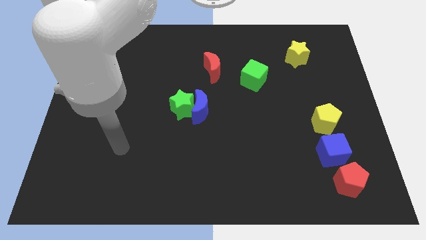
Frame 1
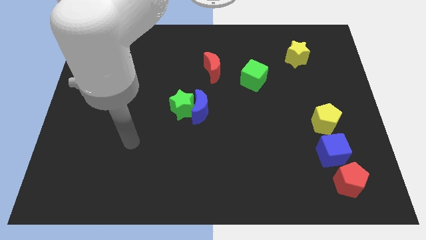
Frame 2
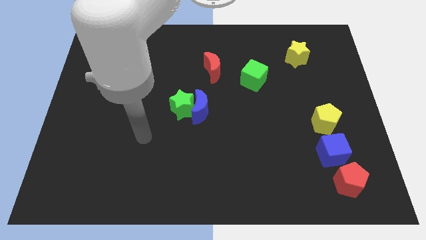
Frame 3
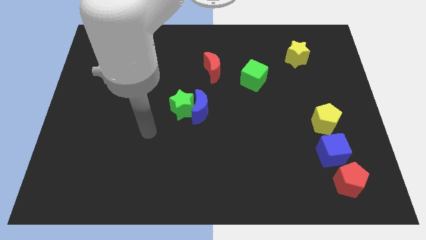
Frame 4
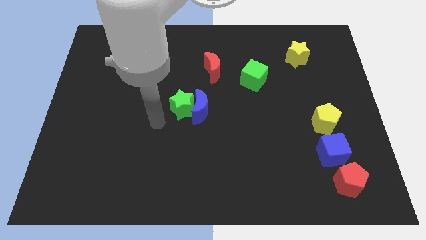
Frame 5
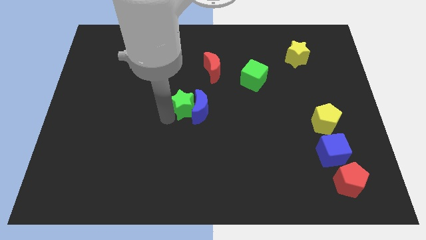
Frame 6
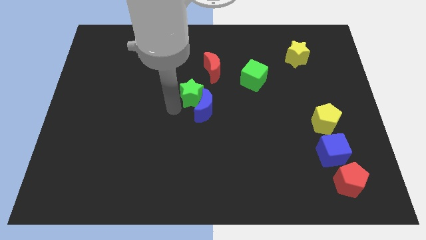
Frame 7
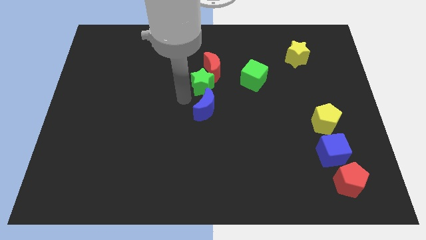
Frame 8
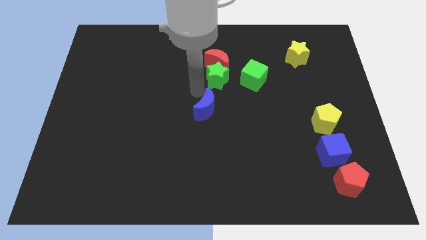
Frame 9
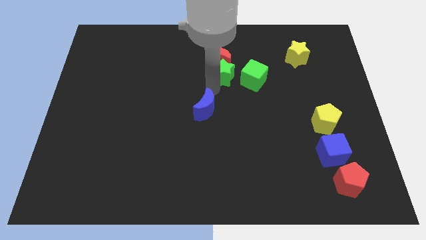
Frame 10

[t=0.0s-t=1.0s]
separate the blue moon from the green star

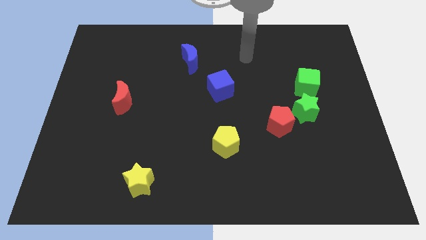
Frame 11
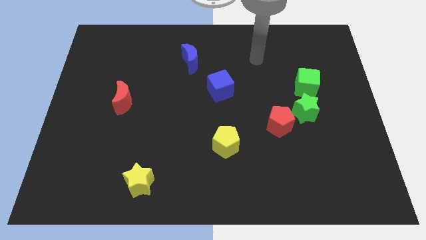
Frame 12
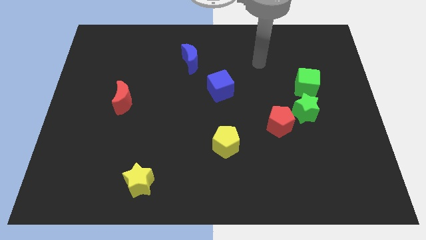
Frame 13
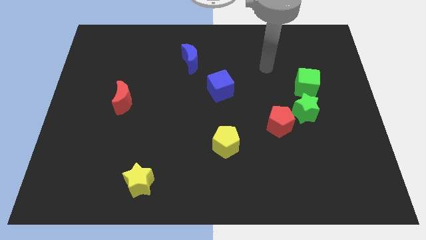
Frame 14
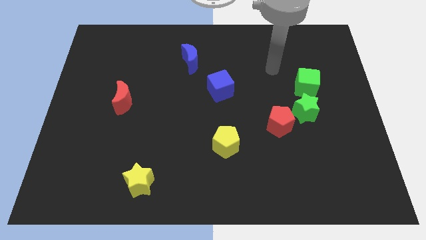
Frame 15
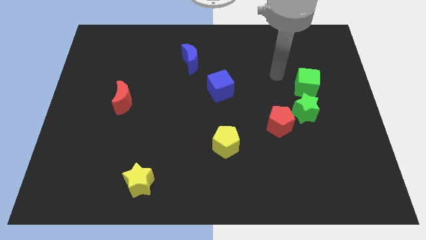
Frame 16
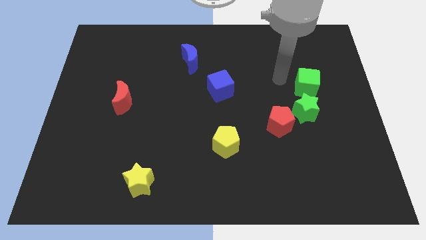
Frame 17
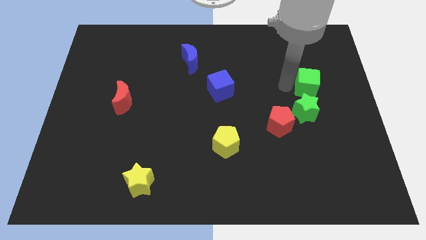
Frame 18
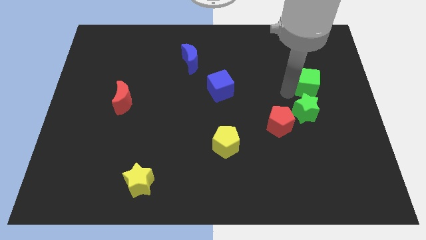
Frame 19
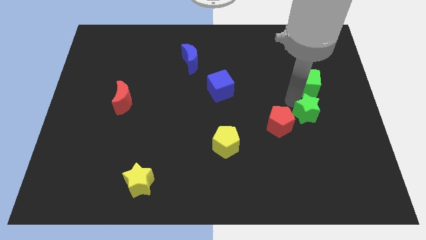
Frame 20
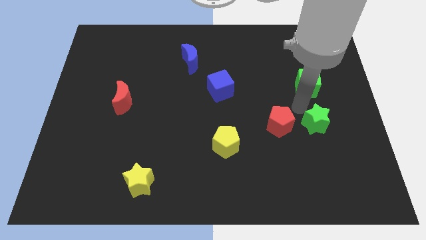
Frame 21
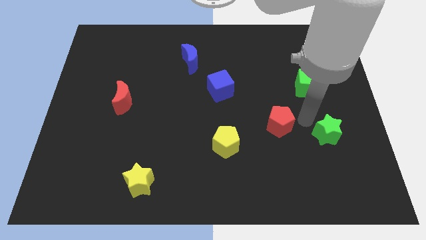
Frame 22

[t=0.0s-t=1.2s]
pull the red pentagon apart from the green star

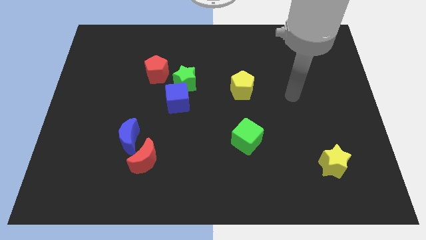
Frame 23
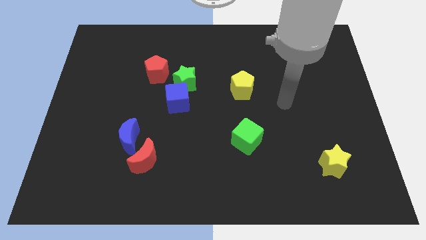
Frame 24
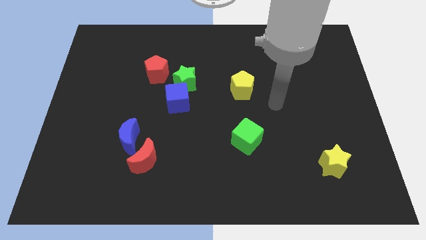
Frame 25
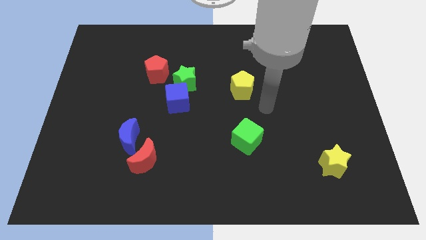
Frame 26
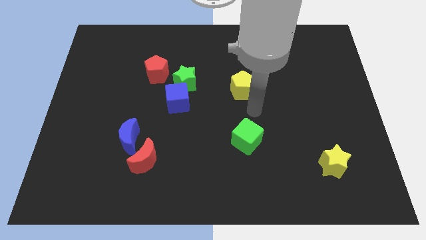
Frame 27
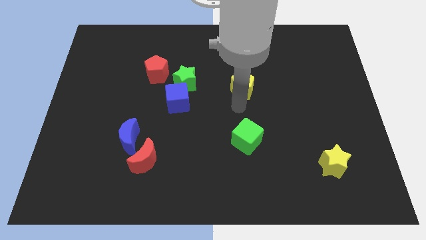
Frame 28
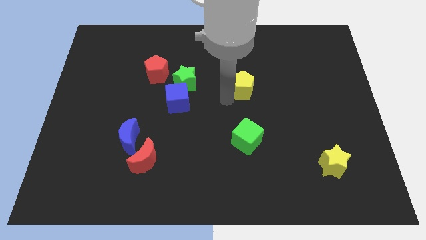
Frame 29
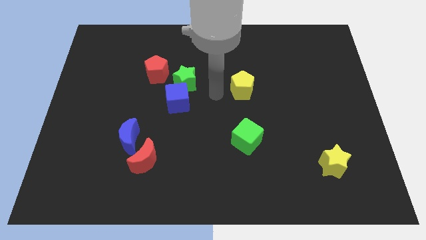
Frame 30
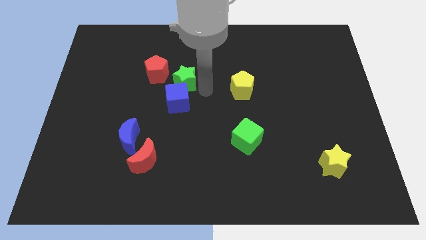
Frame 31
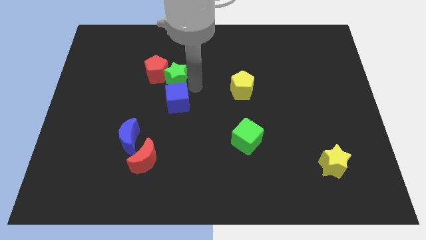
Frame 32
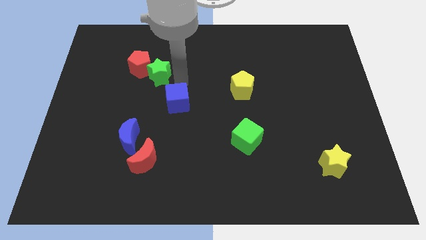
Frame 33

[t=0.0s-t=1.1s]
move the blue cube away from the green star

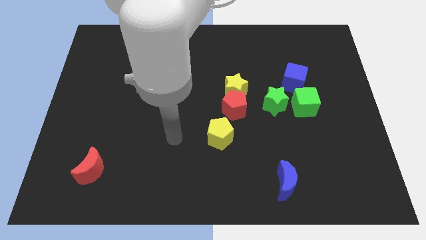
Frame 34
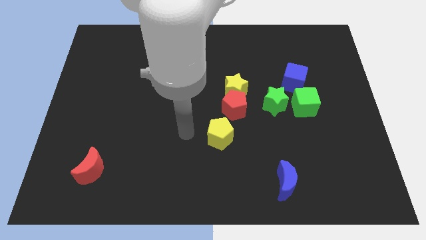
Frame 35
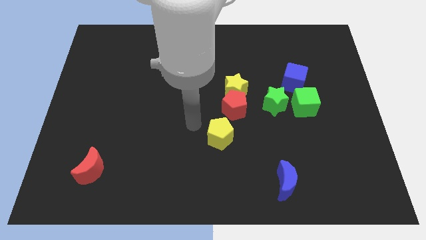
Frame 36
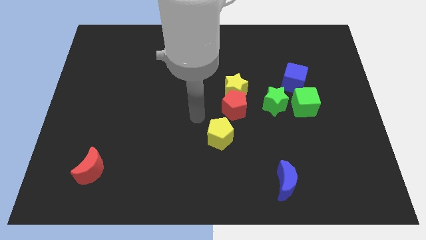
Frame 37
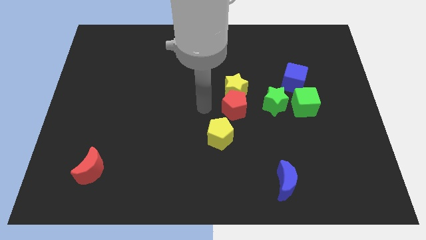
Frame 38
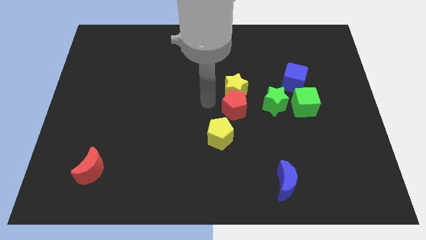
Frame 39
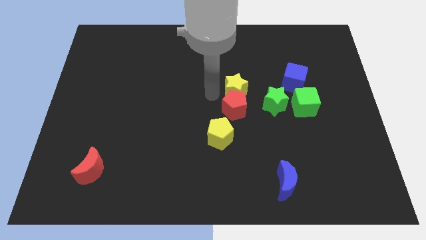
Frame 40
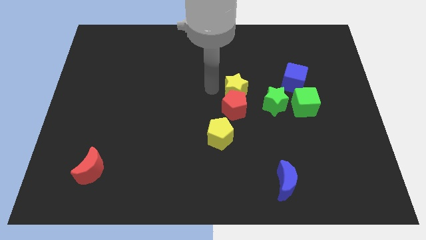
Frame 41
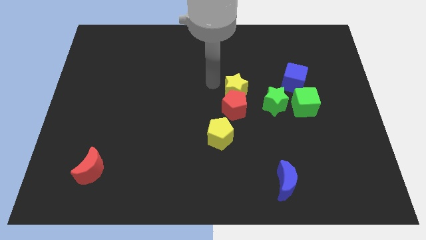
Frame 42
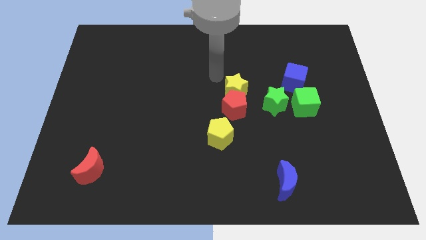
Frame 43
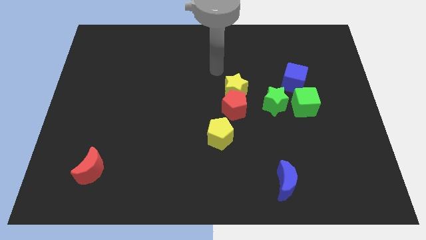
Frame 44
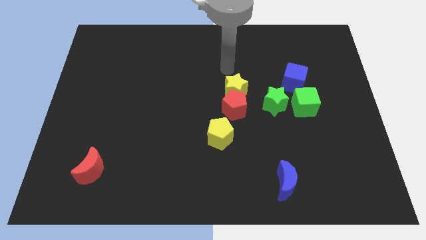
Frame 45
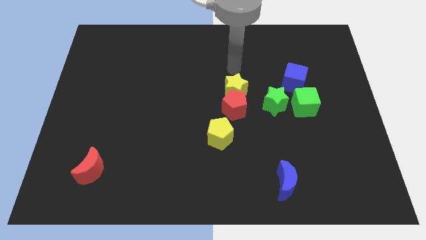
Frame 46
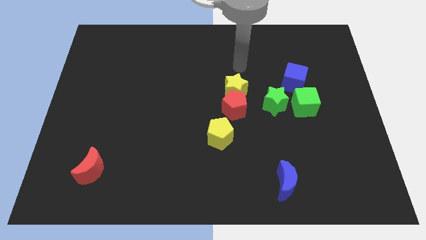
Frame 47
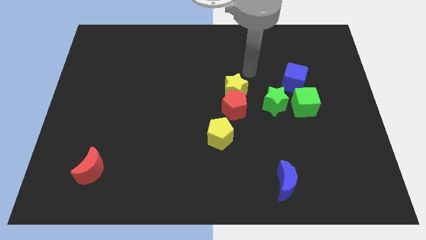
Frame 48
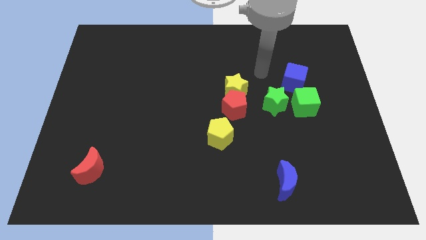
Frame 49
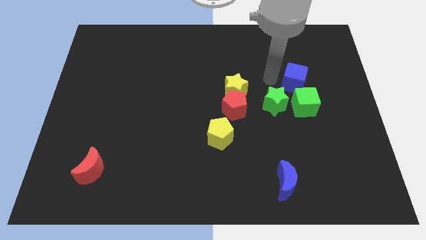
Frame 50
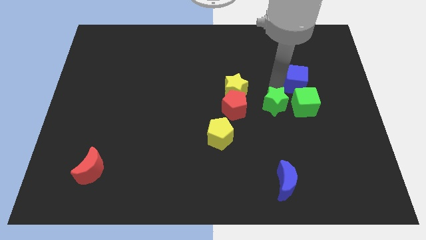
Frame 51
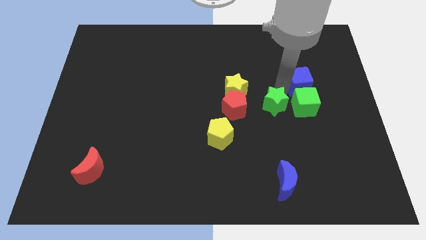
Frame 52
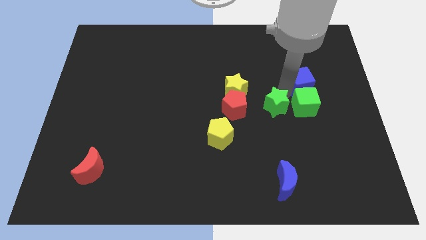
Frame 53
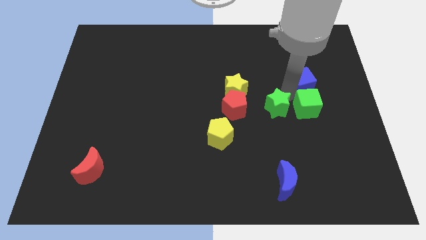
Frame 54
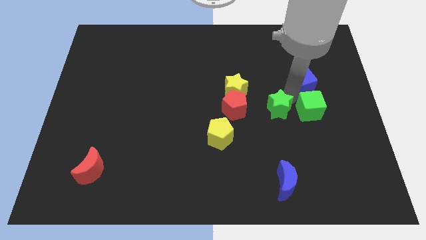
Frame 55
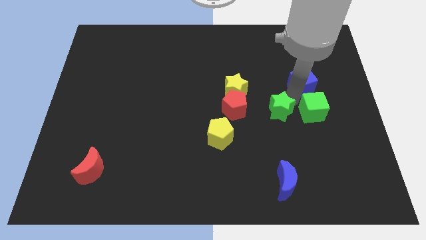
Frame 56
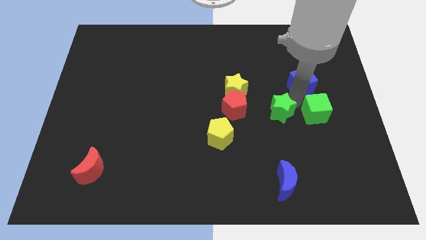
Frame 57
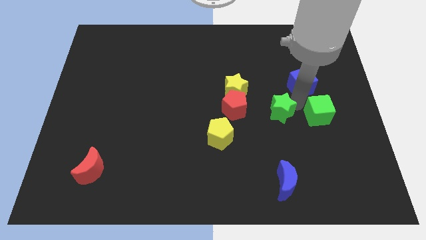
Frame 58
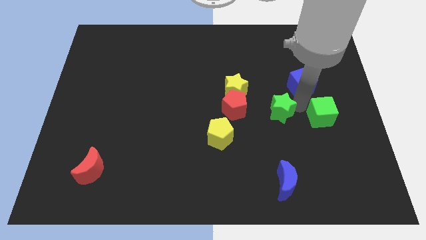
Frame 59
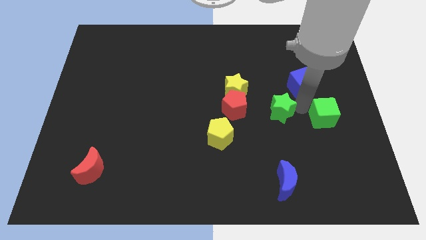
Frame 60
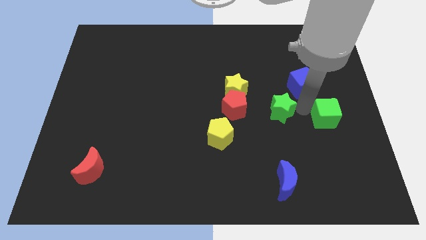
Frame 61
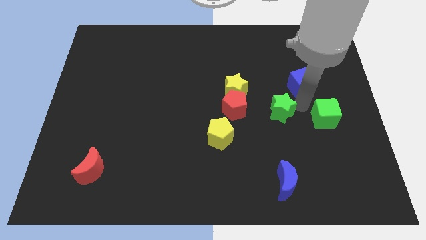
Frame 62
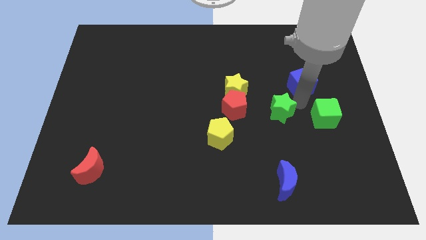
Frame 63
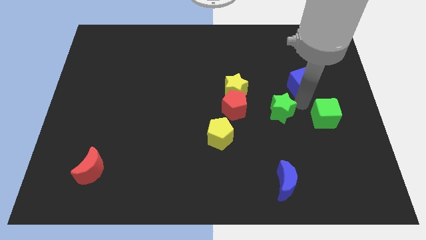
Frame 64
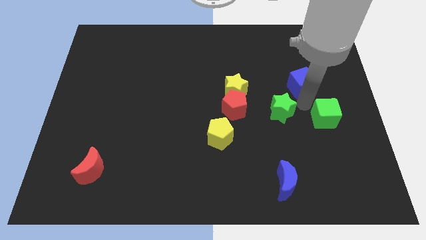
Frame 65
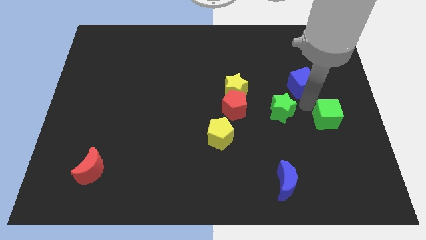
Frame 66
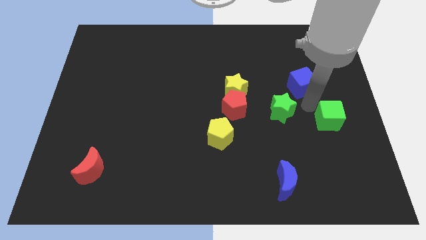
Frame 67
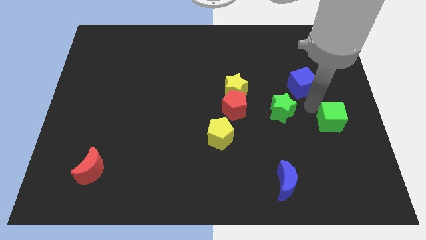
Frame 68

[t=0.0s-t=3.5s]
pull the green cube apart from the green star and blue cube

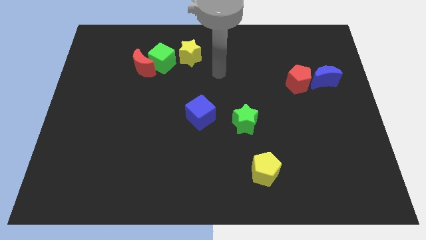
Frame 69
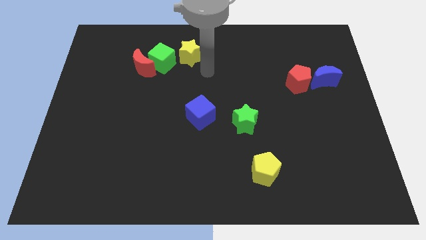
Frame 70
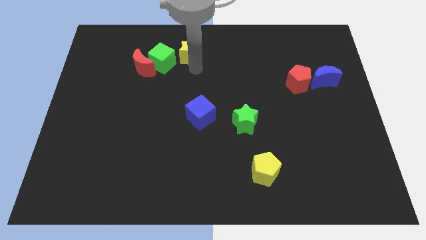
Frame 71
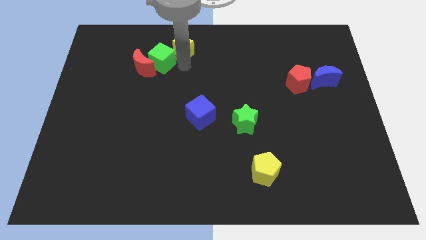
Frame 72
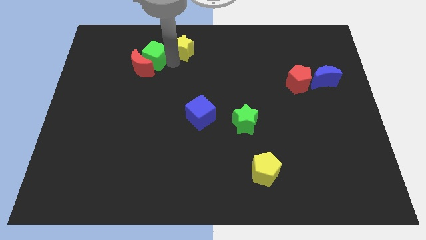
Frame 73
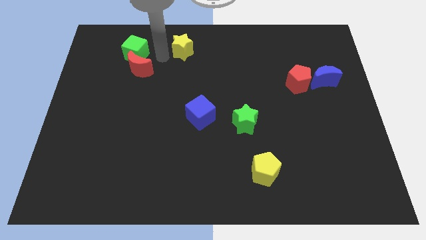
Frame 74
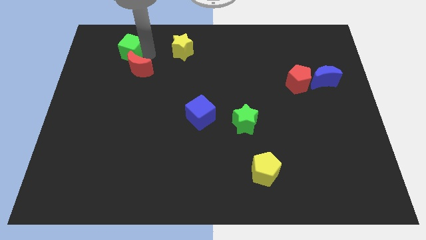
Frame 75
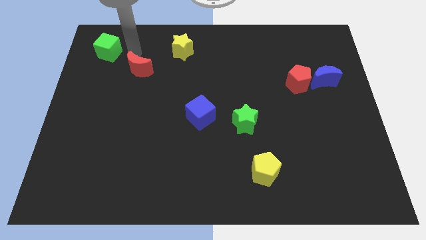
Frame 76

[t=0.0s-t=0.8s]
pull the red moon apart from the green cube

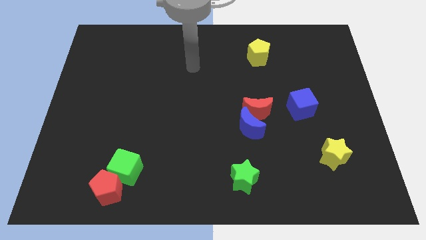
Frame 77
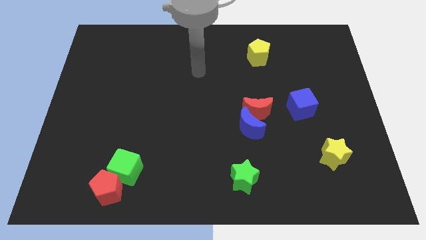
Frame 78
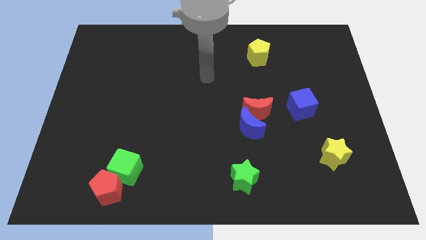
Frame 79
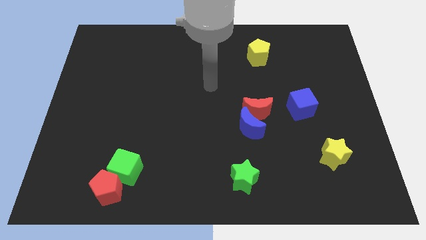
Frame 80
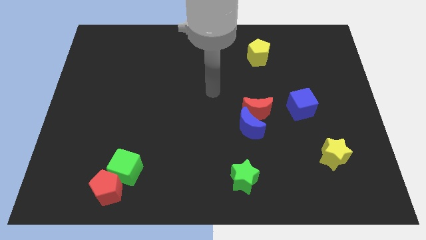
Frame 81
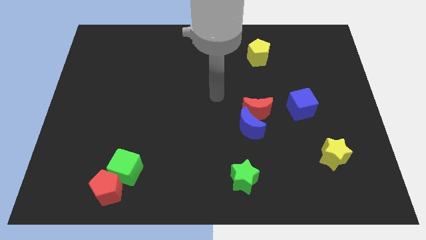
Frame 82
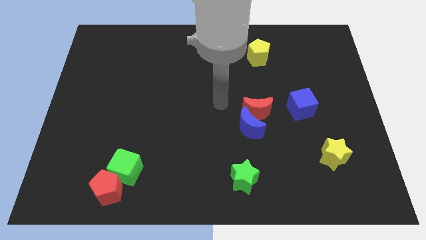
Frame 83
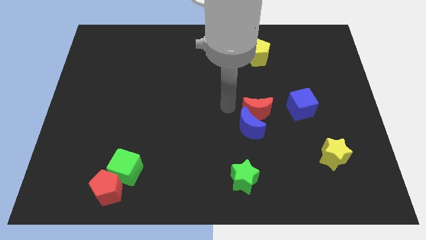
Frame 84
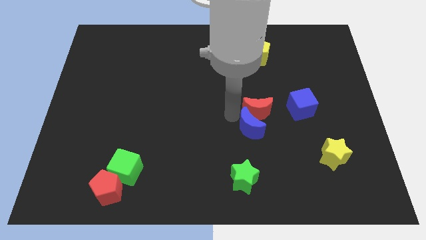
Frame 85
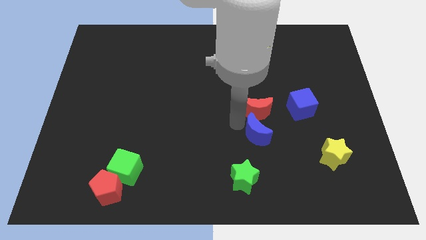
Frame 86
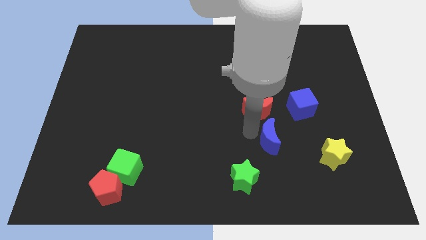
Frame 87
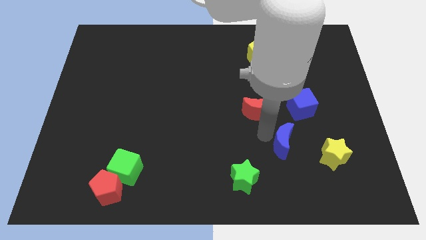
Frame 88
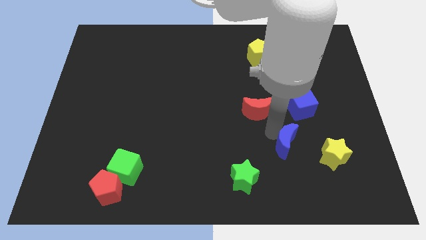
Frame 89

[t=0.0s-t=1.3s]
move the red moon away from the blue moon
